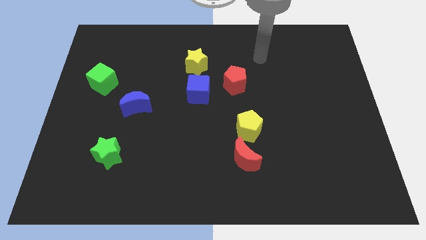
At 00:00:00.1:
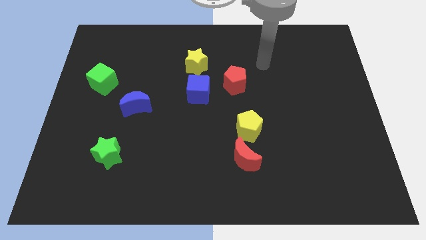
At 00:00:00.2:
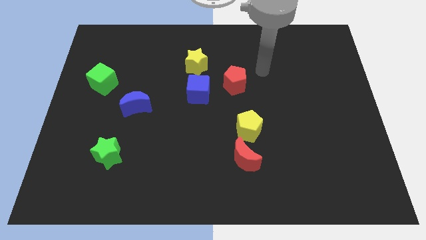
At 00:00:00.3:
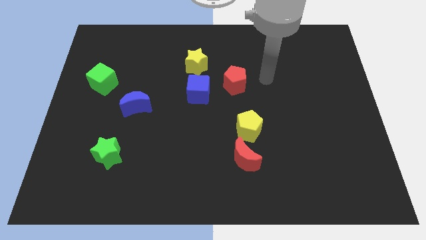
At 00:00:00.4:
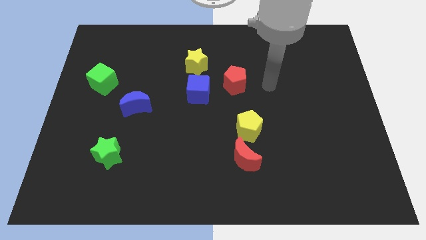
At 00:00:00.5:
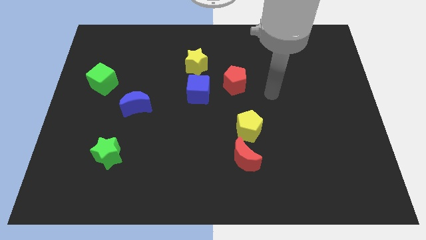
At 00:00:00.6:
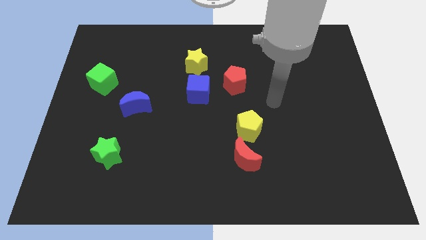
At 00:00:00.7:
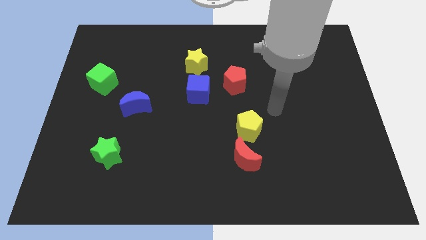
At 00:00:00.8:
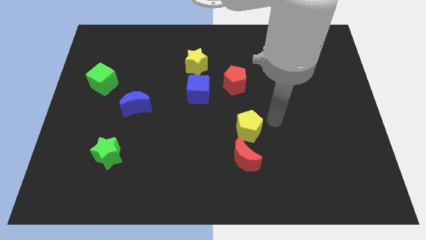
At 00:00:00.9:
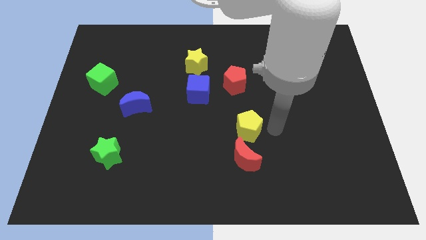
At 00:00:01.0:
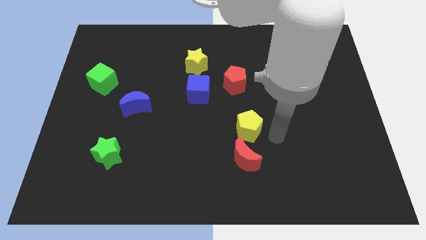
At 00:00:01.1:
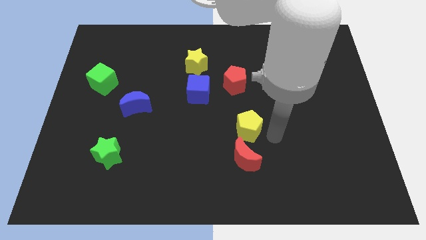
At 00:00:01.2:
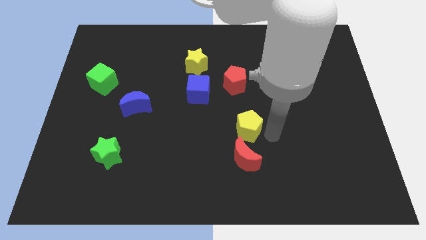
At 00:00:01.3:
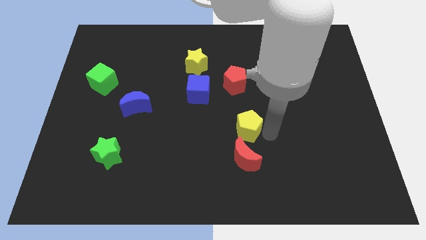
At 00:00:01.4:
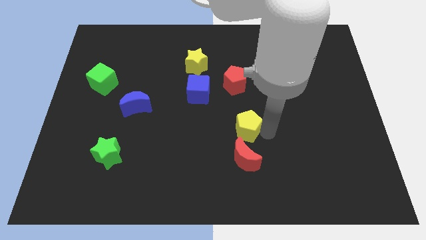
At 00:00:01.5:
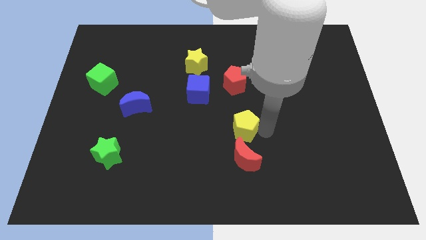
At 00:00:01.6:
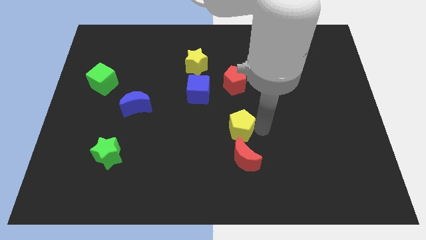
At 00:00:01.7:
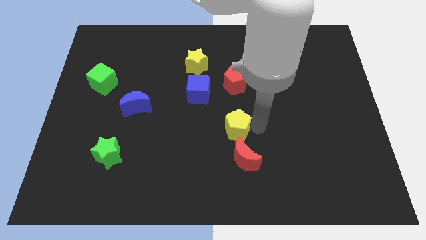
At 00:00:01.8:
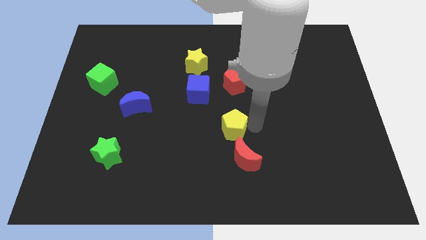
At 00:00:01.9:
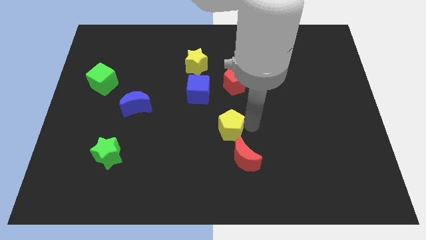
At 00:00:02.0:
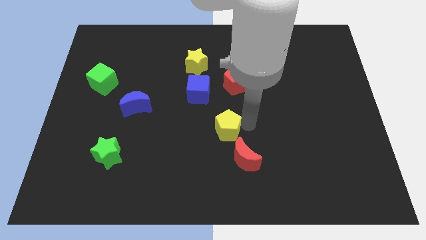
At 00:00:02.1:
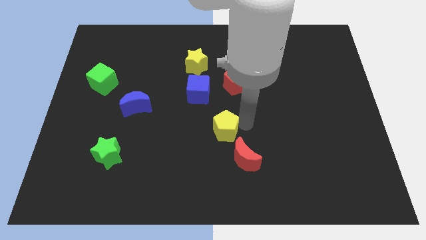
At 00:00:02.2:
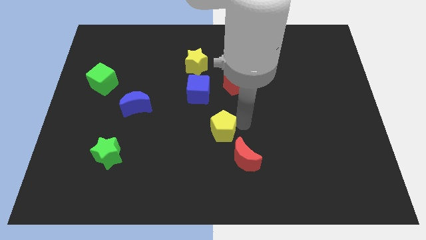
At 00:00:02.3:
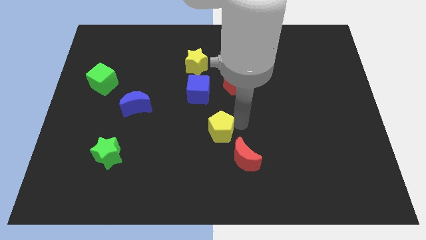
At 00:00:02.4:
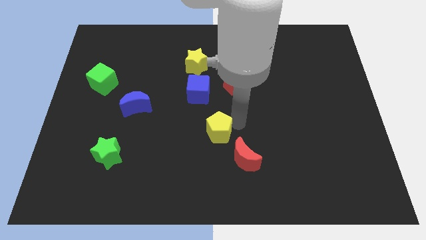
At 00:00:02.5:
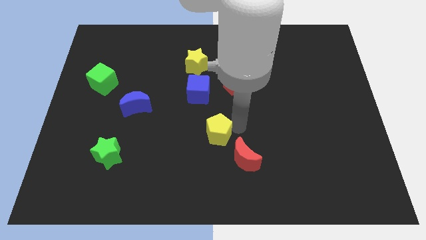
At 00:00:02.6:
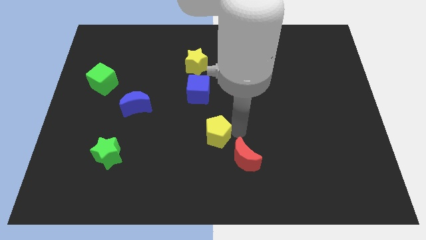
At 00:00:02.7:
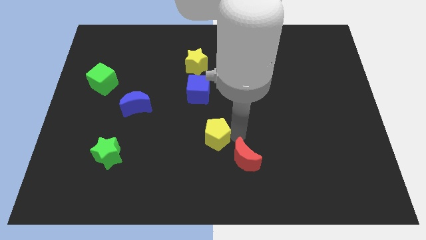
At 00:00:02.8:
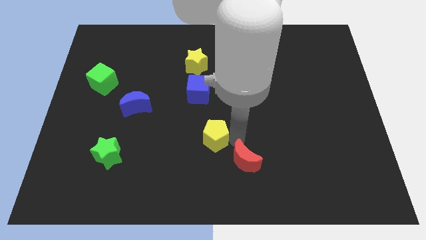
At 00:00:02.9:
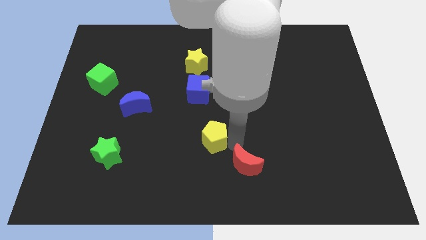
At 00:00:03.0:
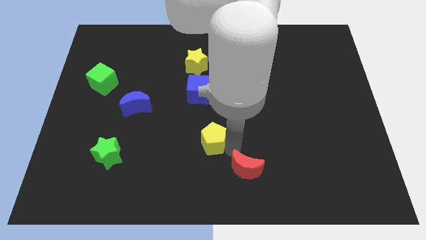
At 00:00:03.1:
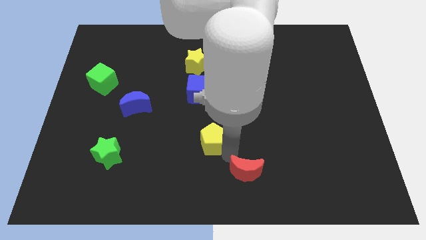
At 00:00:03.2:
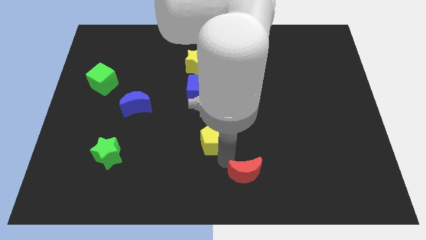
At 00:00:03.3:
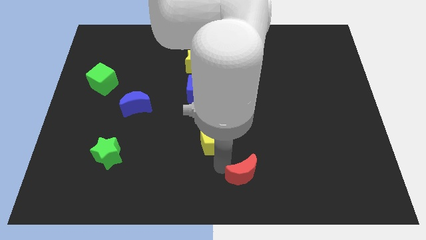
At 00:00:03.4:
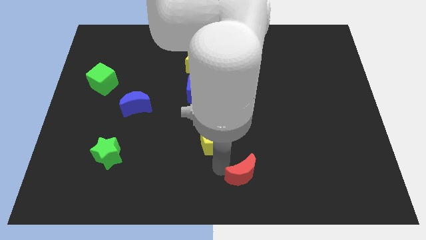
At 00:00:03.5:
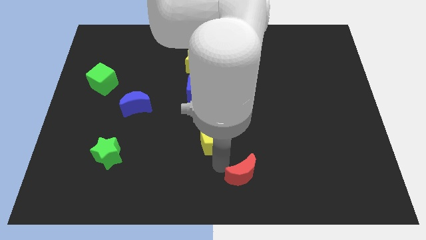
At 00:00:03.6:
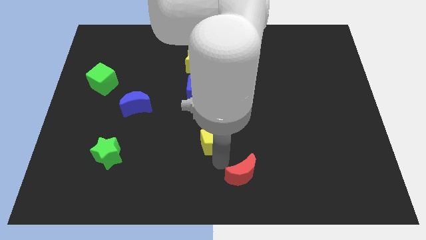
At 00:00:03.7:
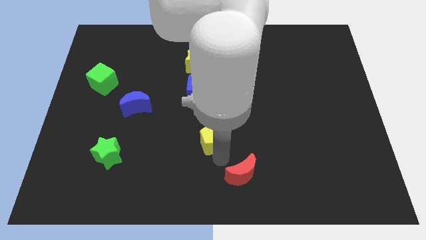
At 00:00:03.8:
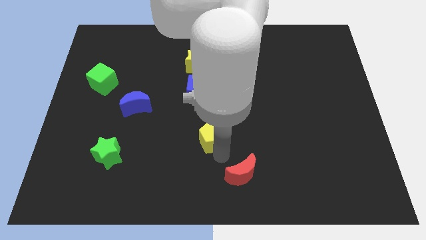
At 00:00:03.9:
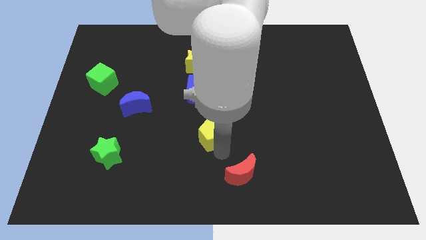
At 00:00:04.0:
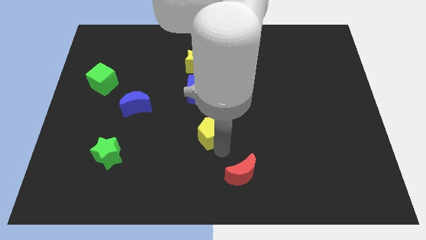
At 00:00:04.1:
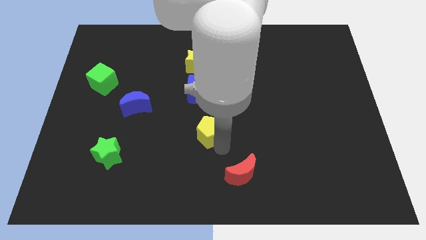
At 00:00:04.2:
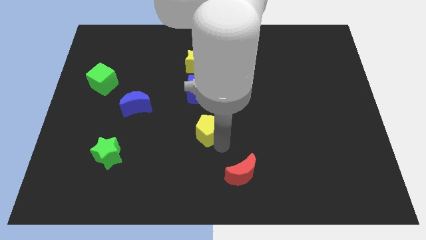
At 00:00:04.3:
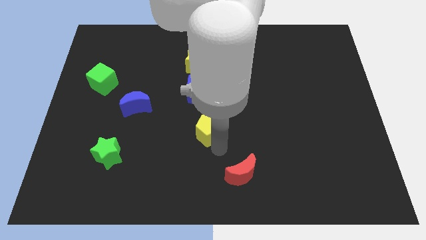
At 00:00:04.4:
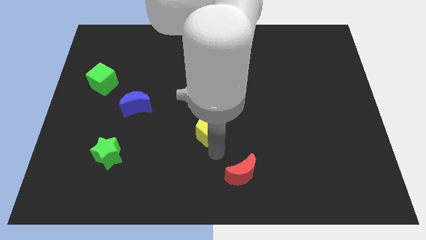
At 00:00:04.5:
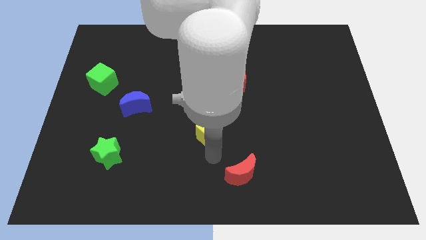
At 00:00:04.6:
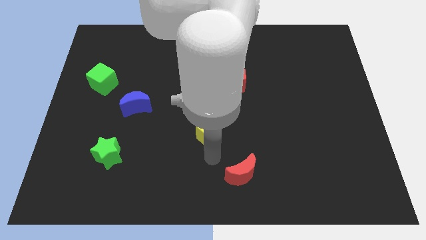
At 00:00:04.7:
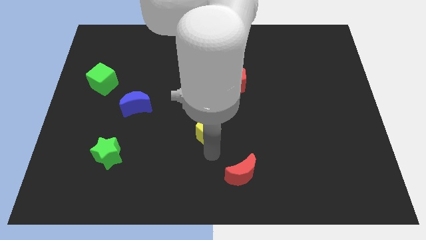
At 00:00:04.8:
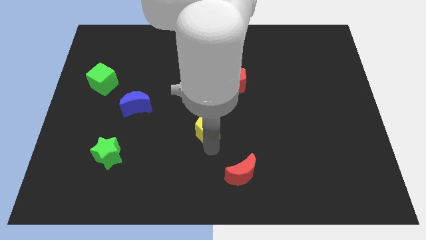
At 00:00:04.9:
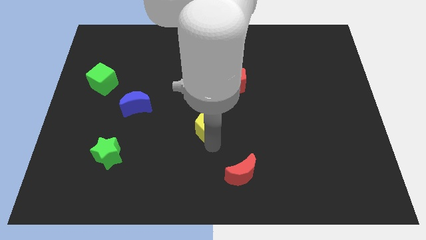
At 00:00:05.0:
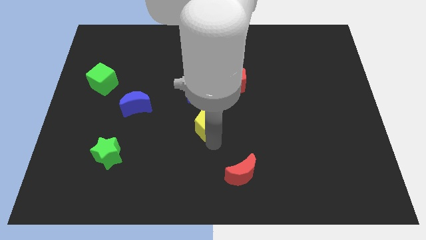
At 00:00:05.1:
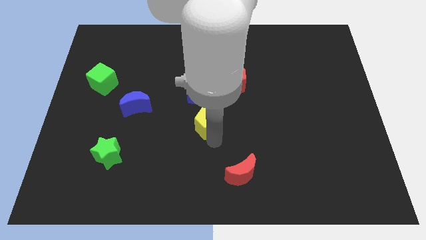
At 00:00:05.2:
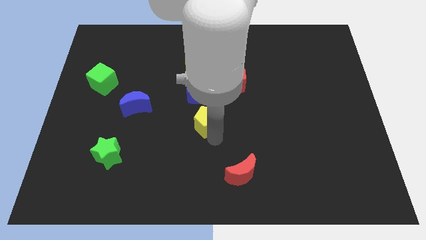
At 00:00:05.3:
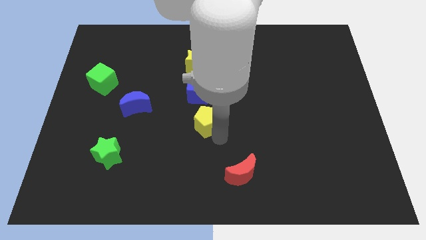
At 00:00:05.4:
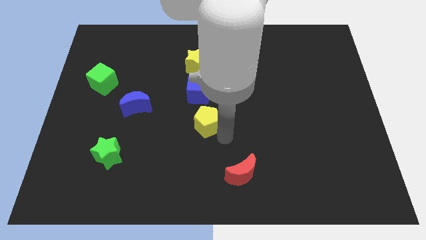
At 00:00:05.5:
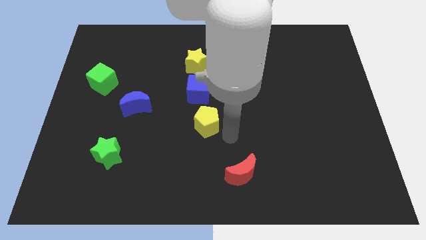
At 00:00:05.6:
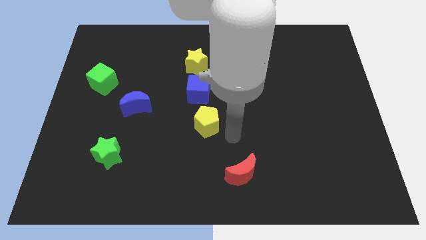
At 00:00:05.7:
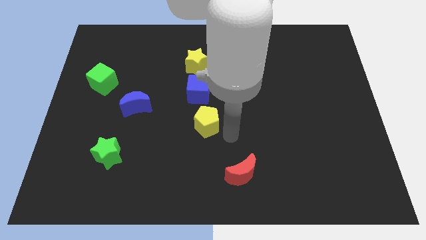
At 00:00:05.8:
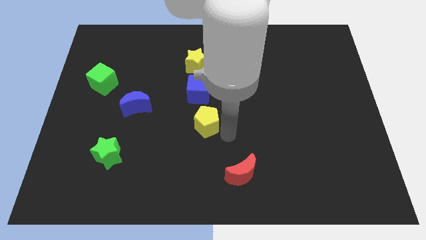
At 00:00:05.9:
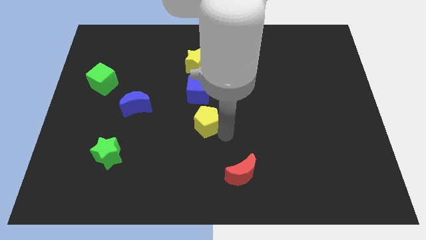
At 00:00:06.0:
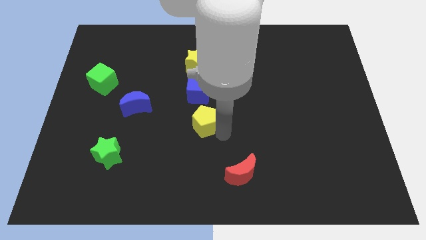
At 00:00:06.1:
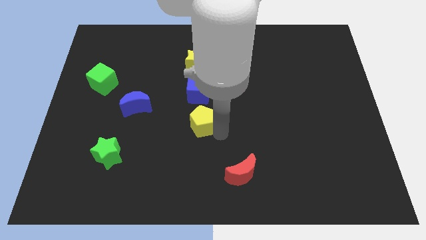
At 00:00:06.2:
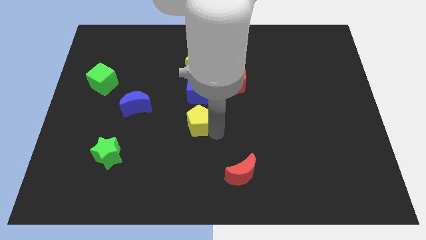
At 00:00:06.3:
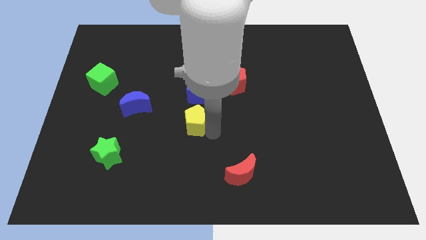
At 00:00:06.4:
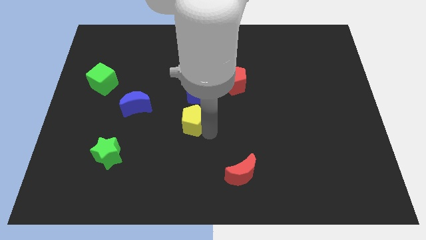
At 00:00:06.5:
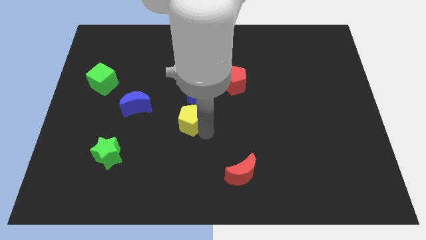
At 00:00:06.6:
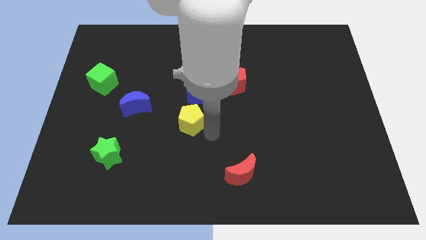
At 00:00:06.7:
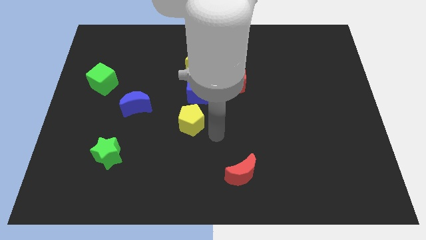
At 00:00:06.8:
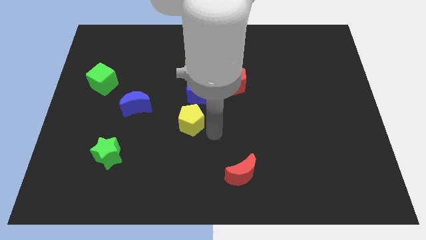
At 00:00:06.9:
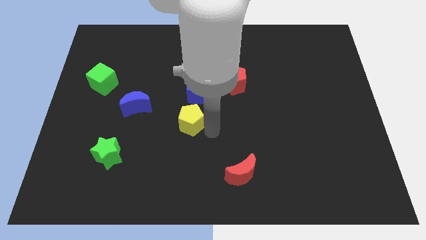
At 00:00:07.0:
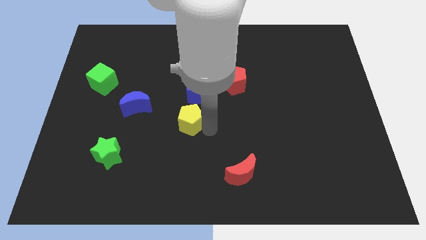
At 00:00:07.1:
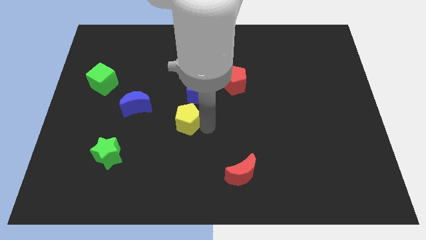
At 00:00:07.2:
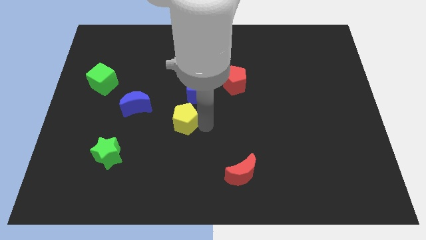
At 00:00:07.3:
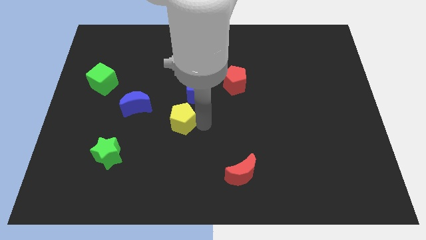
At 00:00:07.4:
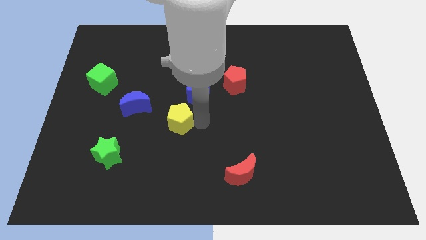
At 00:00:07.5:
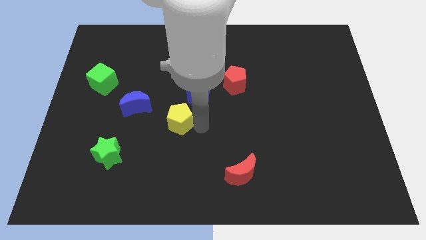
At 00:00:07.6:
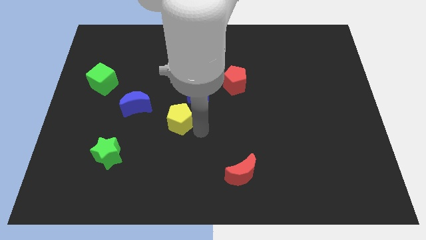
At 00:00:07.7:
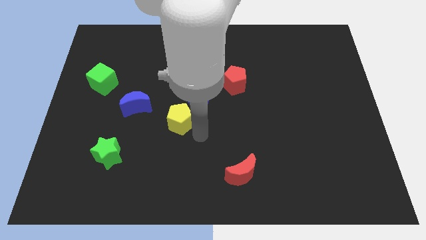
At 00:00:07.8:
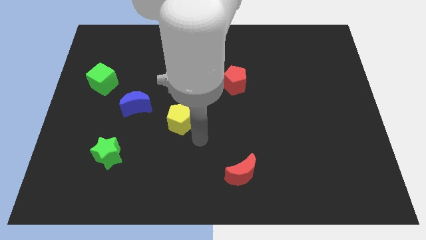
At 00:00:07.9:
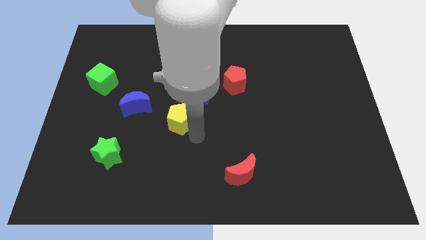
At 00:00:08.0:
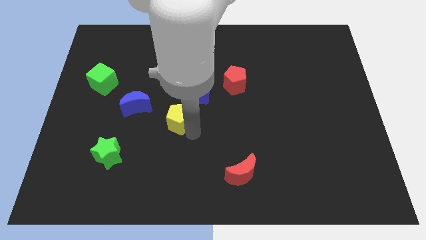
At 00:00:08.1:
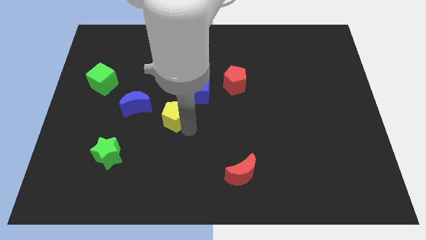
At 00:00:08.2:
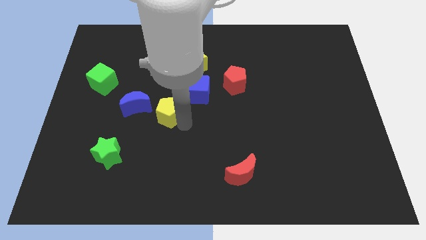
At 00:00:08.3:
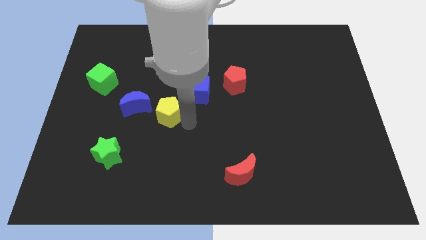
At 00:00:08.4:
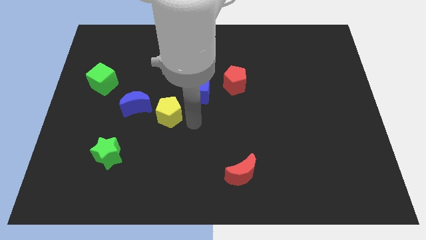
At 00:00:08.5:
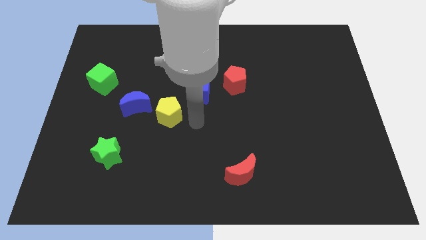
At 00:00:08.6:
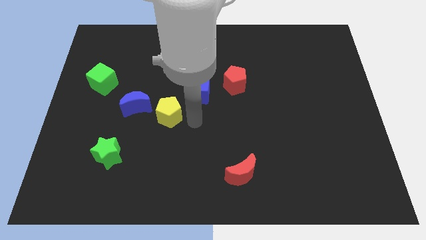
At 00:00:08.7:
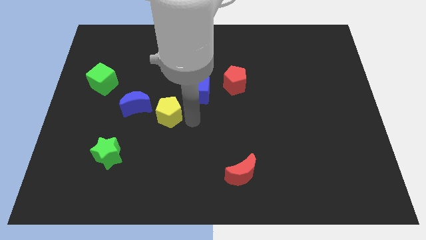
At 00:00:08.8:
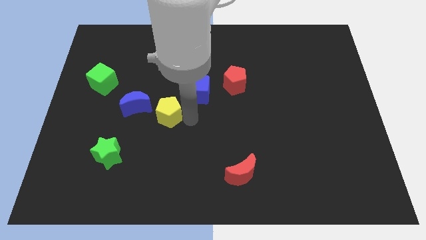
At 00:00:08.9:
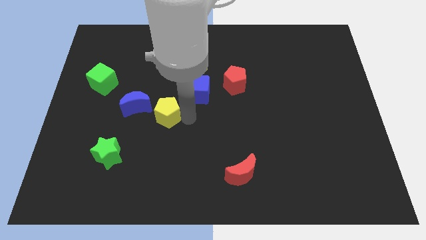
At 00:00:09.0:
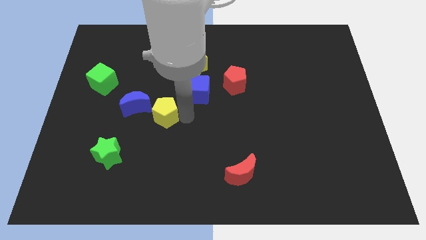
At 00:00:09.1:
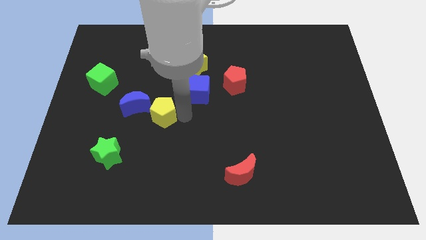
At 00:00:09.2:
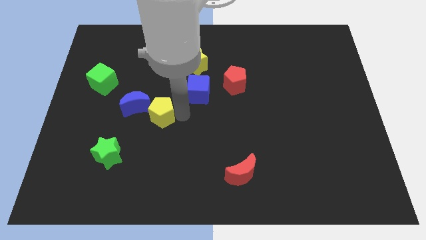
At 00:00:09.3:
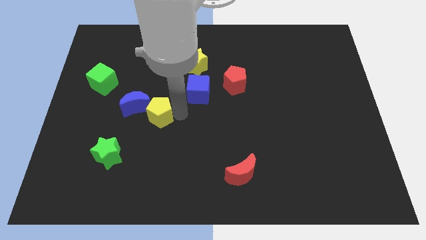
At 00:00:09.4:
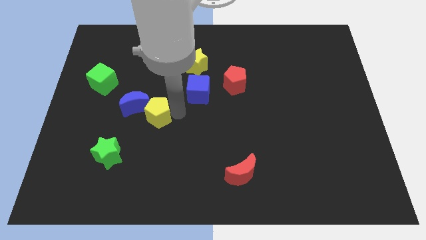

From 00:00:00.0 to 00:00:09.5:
put the yellow pentagon towards the blue moon
